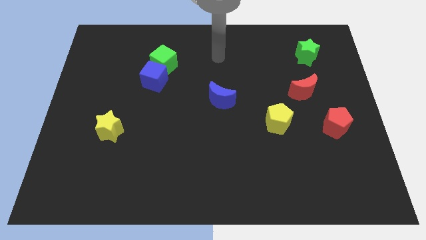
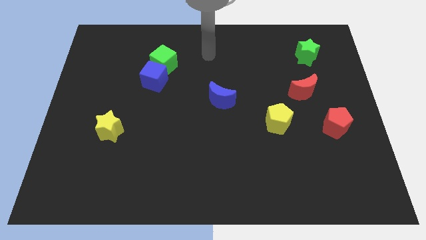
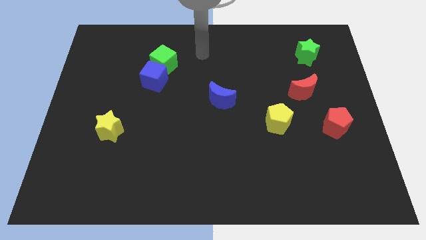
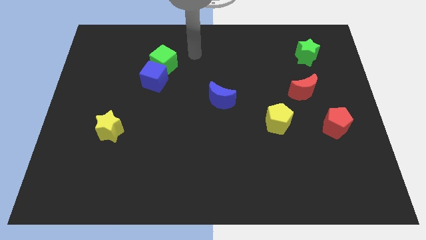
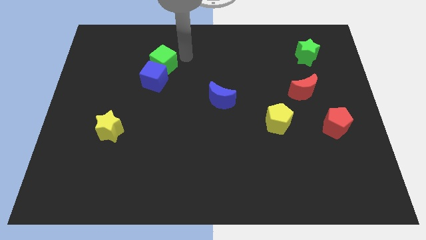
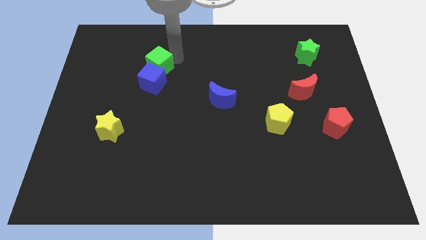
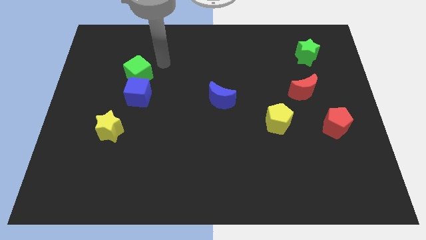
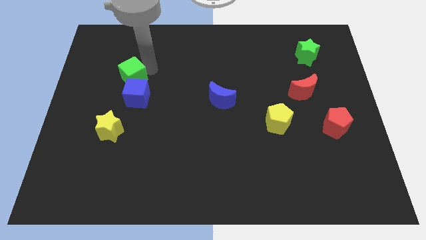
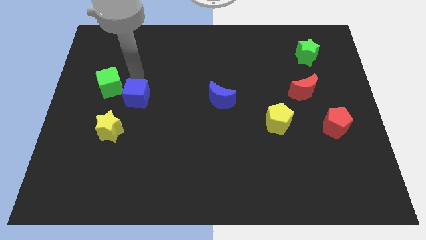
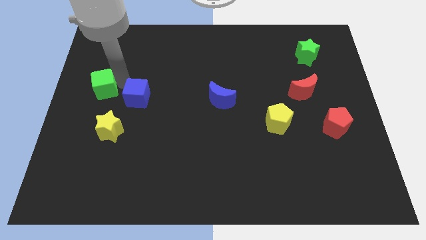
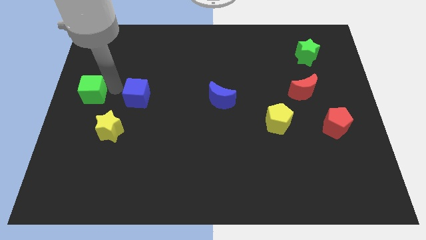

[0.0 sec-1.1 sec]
pull the blue cube apart from the green cube

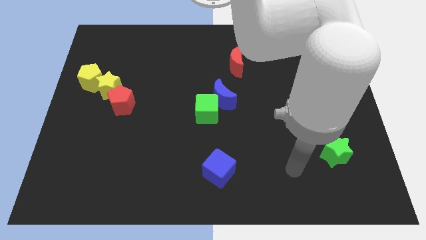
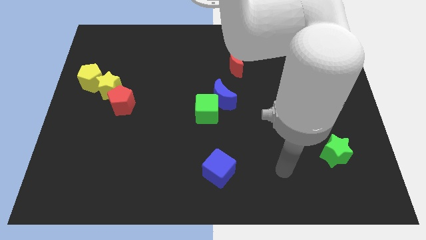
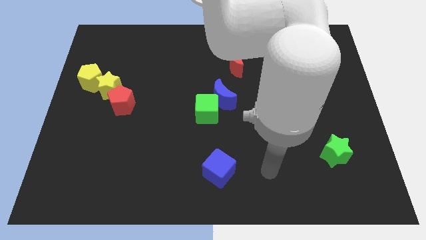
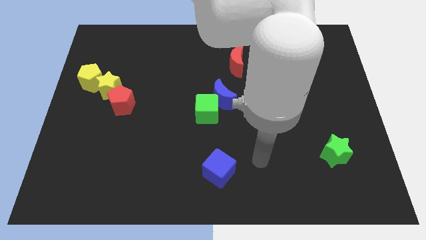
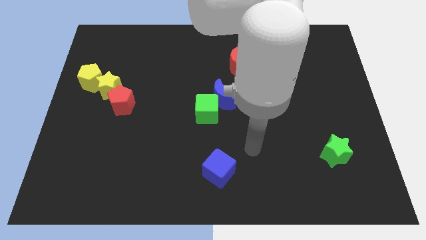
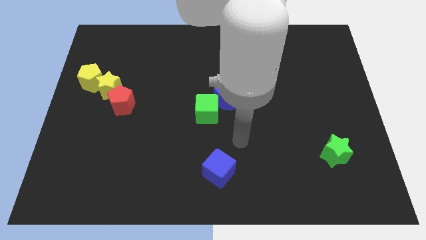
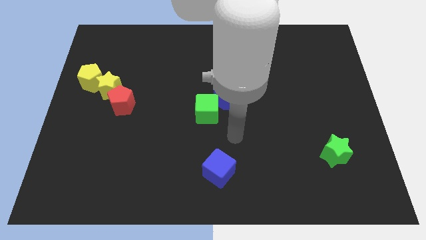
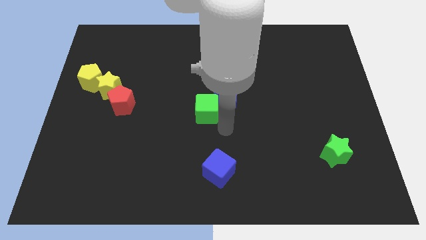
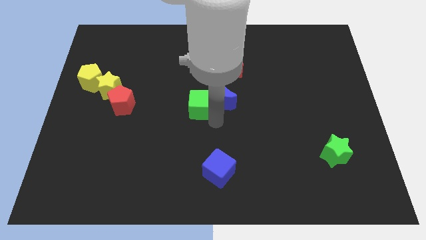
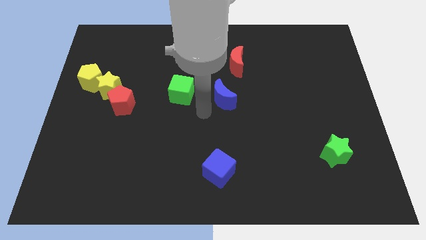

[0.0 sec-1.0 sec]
pull the blue moon apart from the green cube

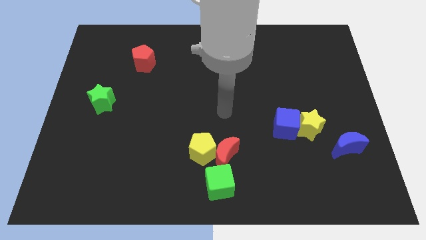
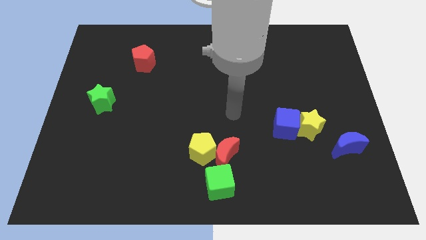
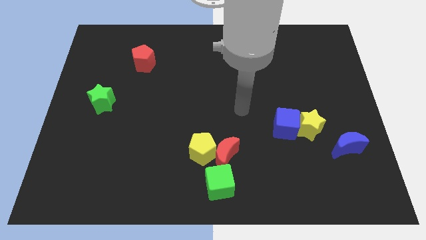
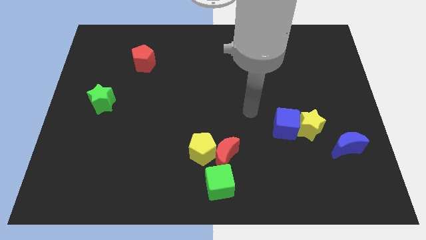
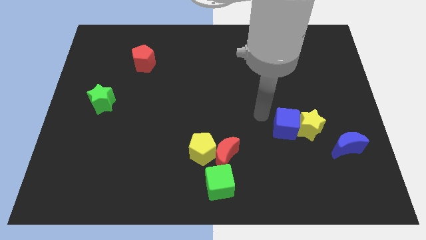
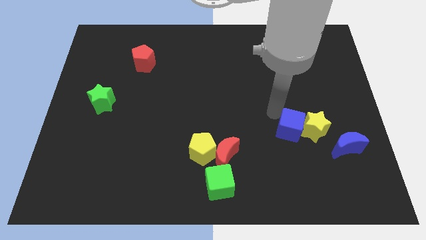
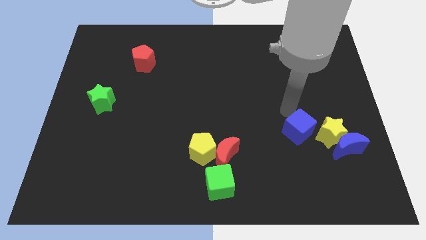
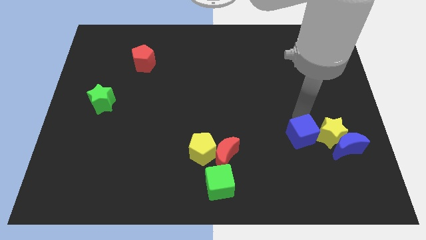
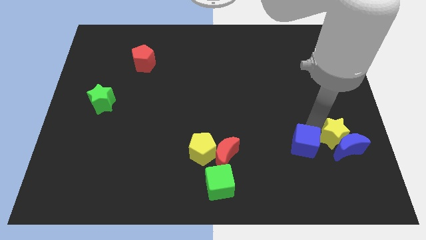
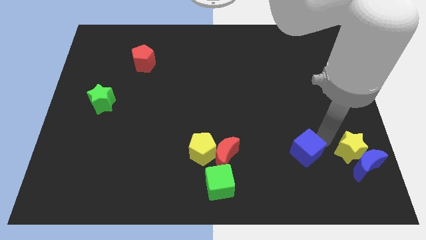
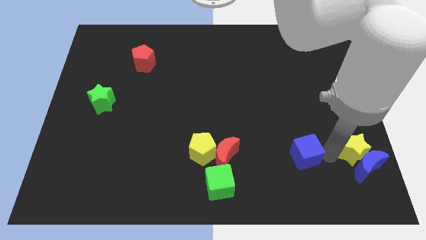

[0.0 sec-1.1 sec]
move the blue cube away from the yellow star

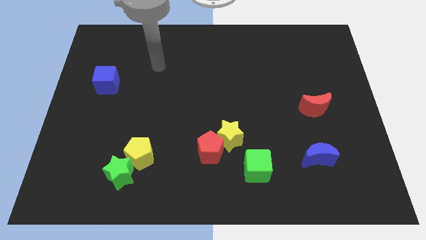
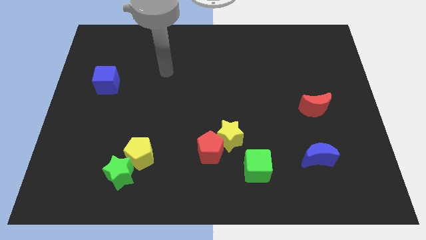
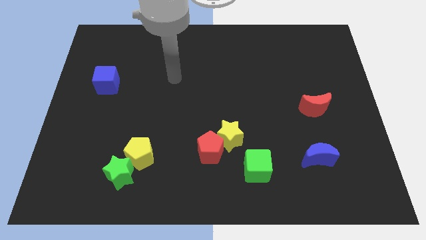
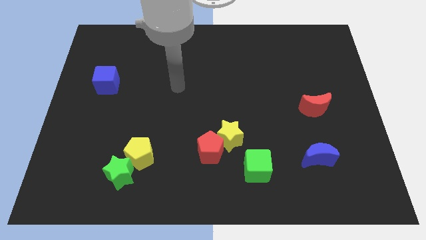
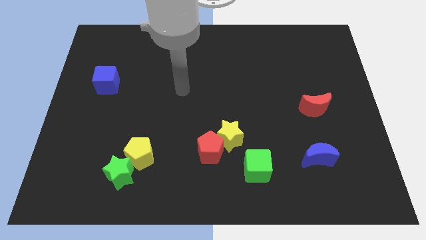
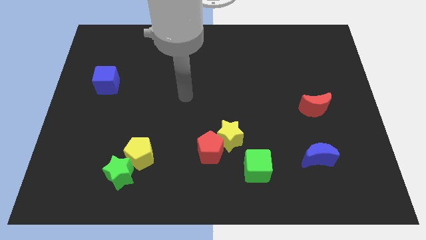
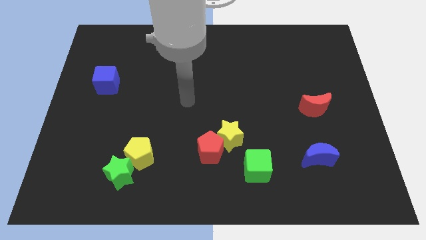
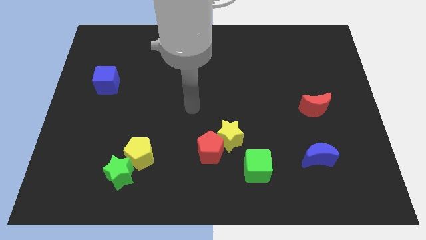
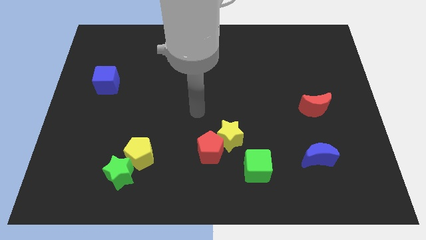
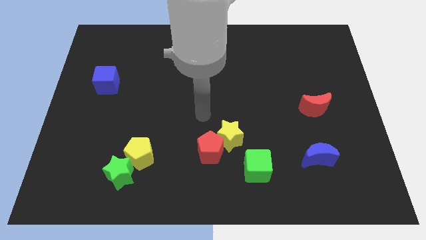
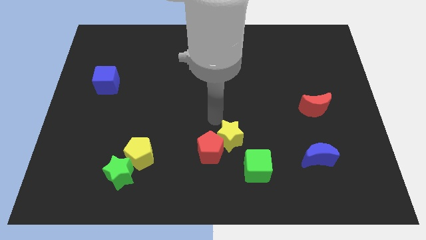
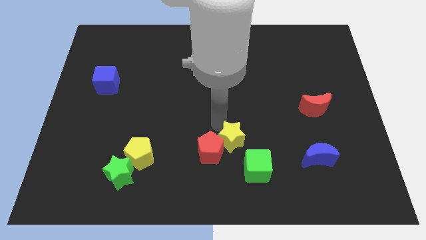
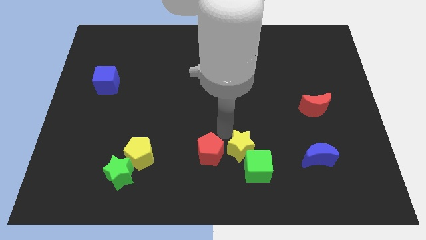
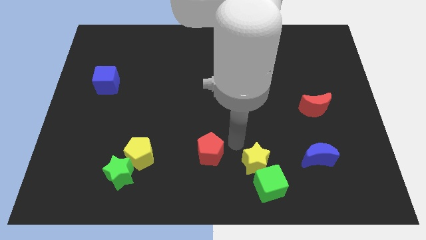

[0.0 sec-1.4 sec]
pull the red pentagon apart from the yellow star

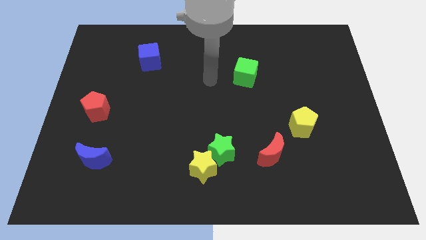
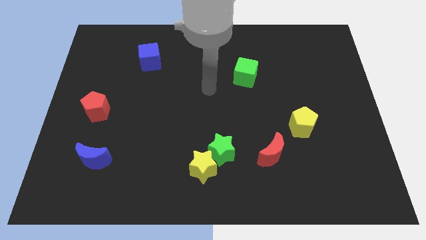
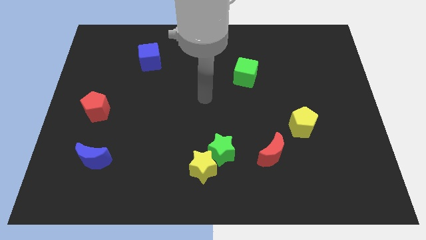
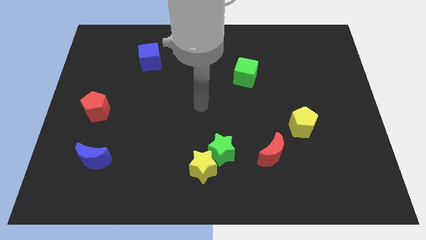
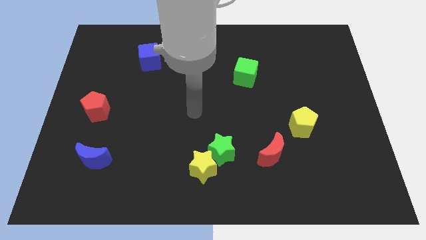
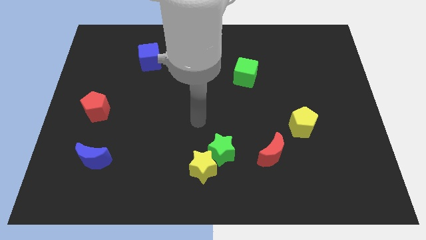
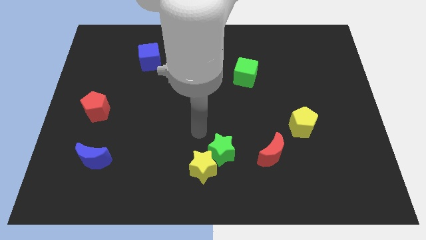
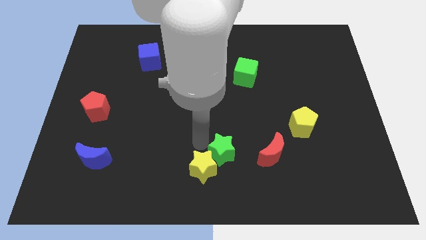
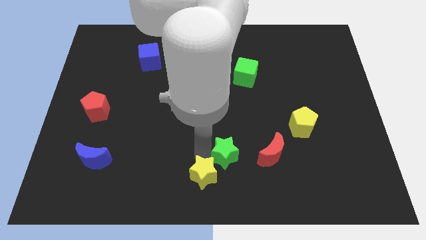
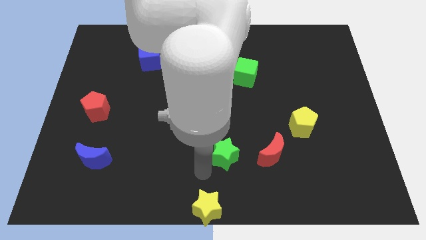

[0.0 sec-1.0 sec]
separate the green star from the yellow star

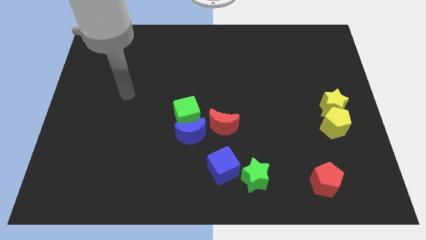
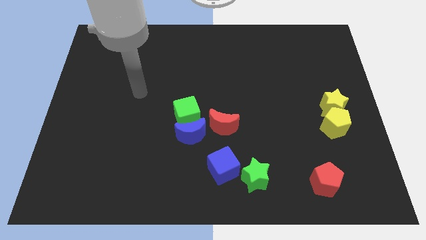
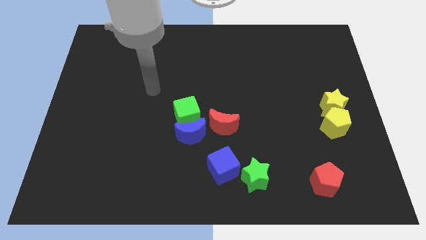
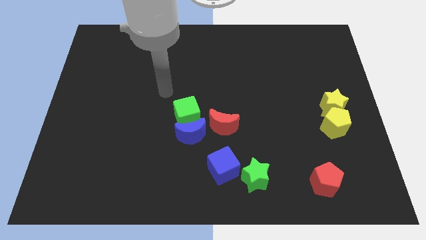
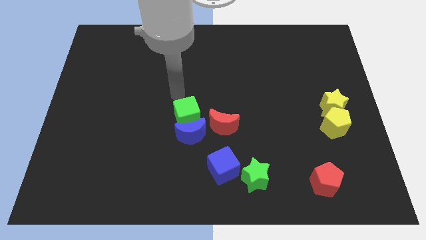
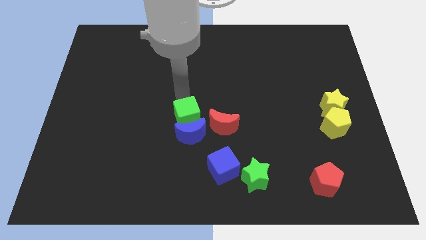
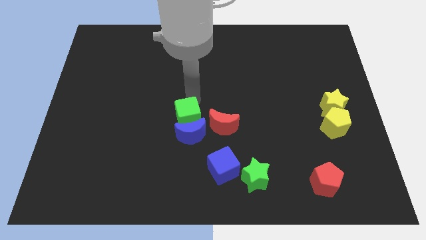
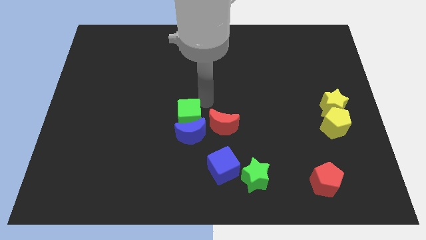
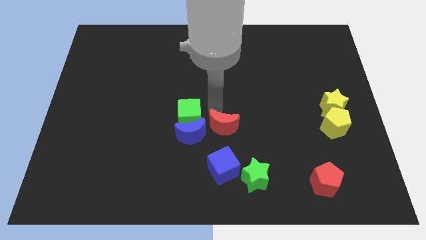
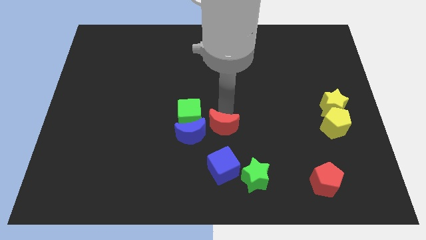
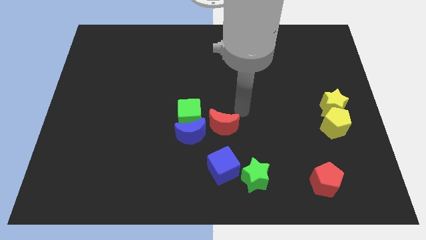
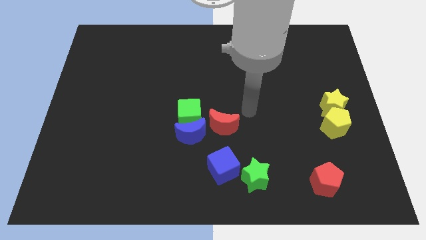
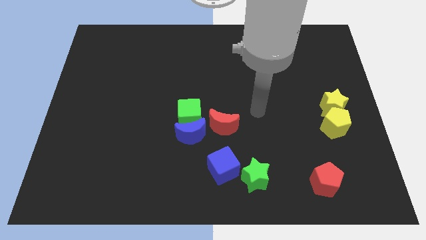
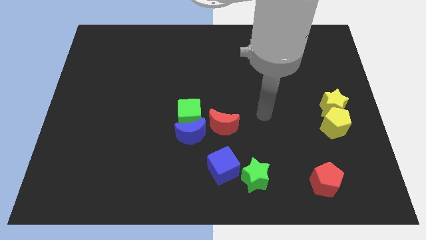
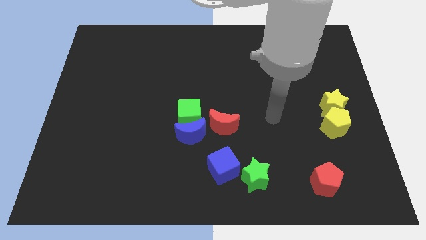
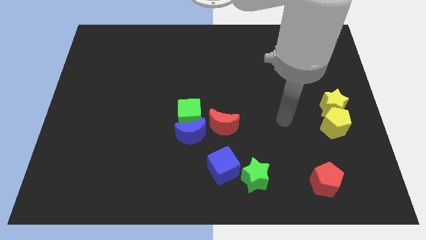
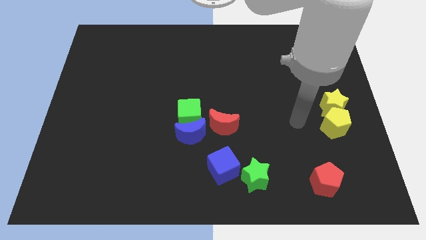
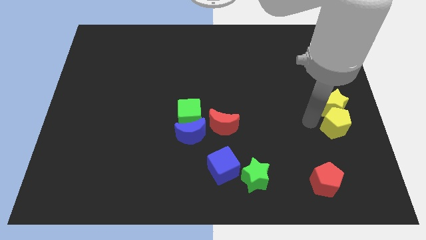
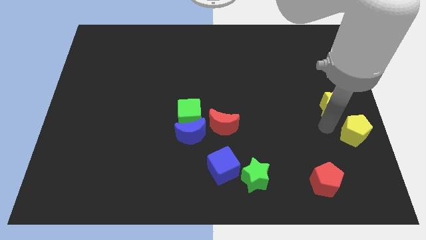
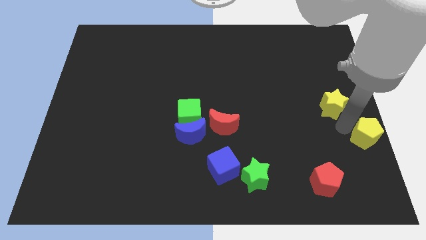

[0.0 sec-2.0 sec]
separate the yellow star from the yellow pentagon

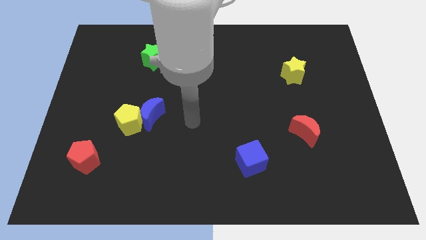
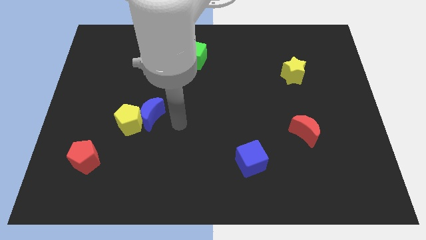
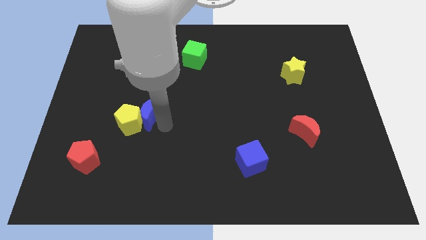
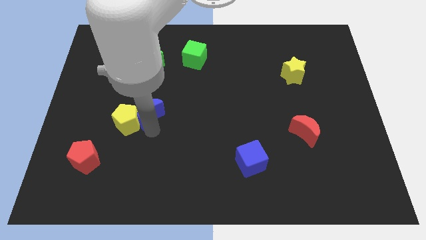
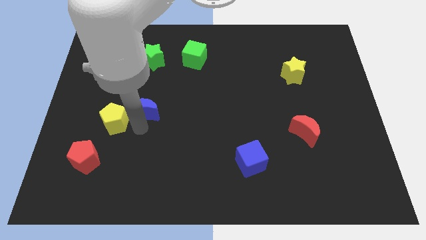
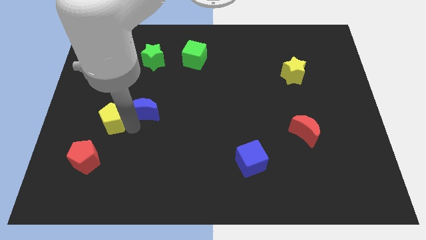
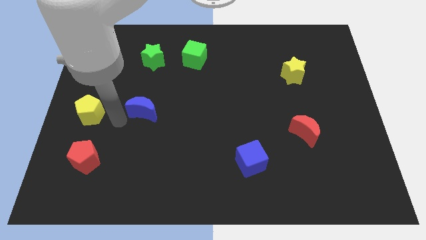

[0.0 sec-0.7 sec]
pull the blue moon apart from the yellow pentagon

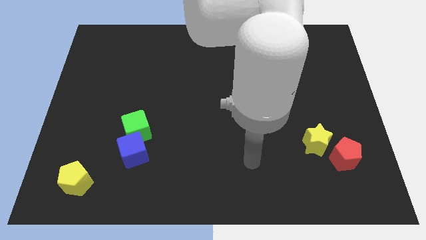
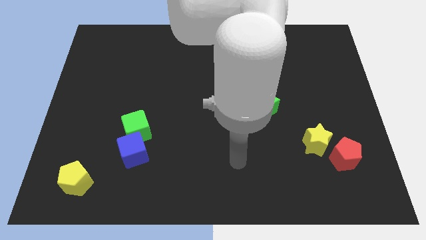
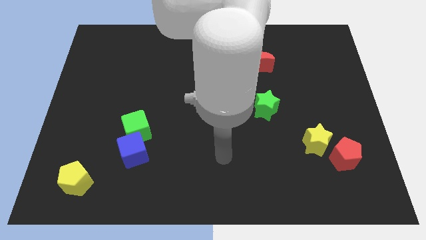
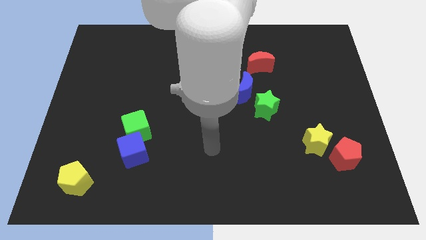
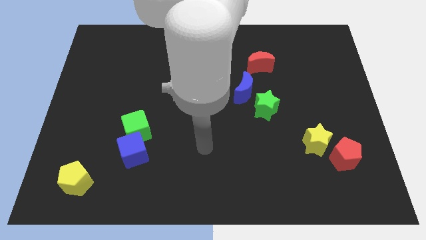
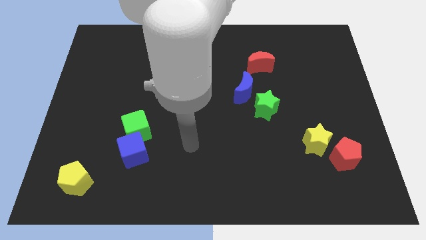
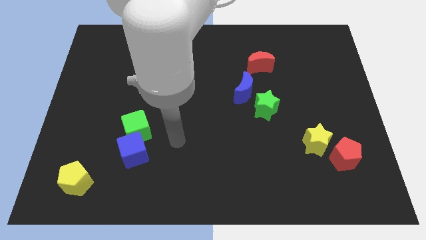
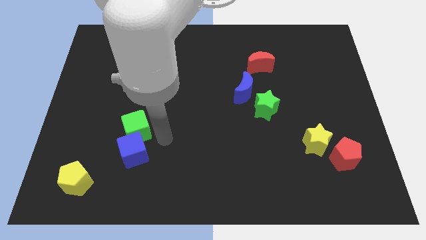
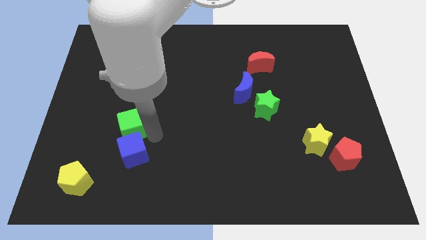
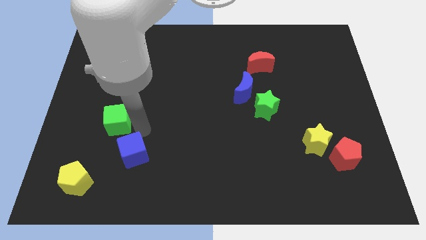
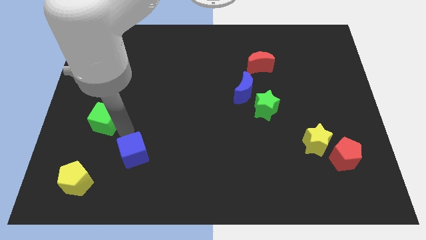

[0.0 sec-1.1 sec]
separate the blue cube from the green cube

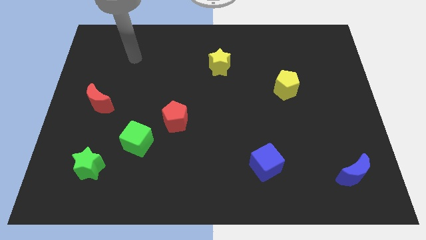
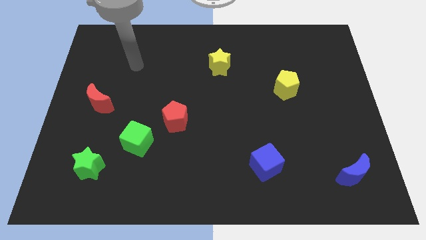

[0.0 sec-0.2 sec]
separate the red pentagon from the green cube
